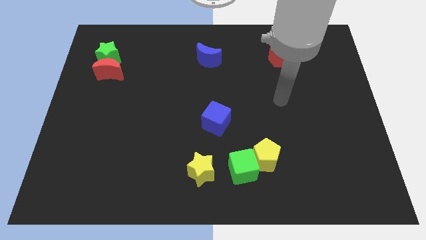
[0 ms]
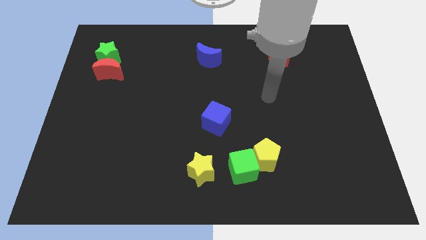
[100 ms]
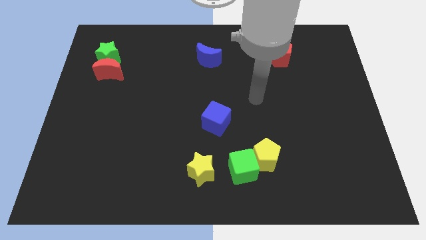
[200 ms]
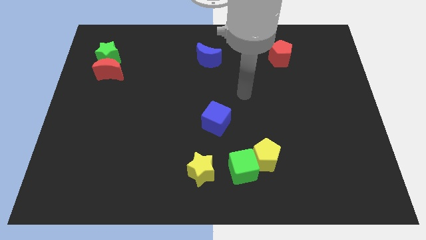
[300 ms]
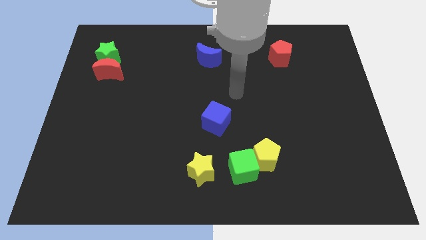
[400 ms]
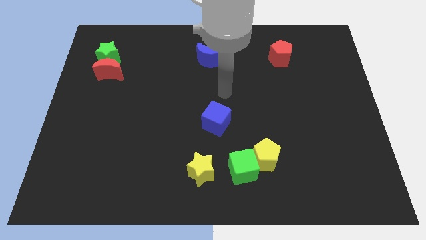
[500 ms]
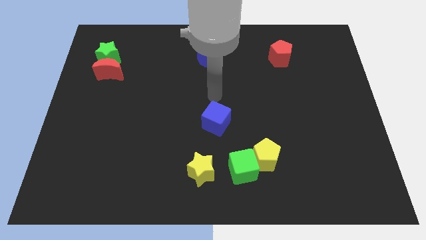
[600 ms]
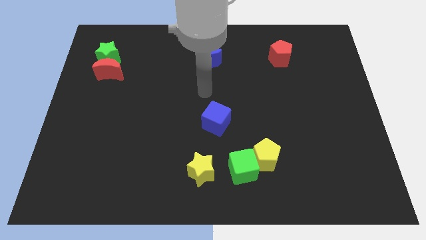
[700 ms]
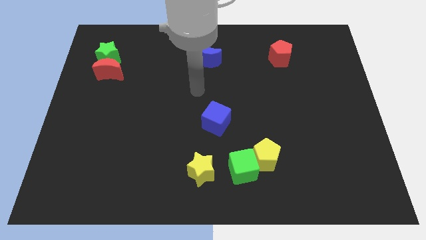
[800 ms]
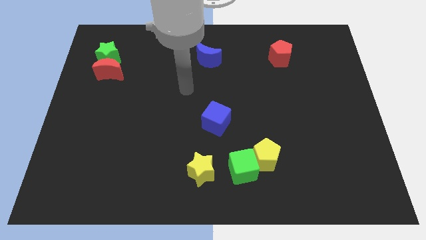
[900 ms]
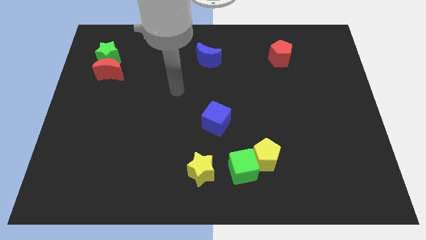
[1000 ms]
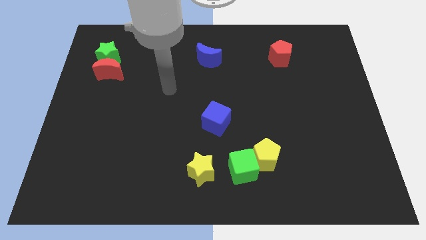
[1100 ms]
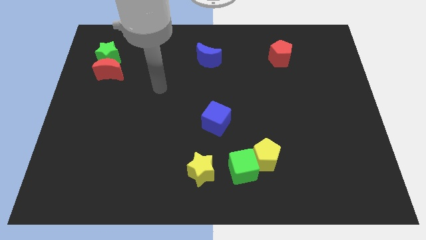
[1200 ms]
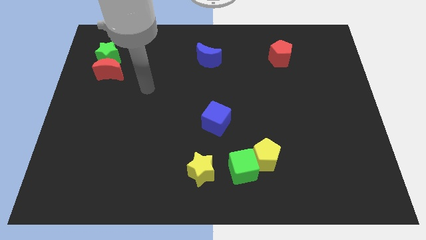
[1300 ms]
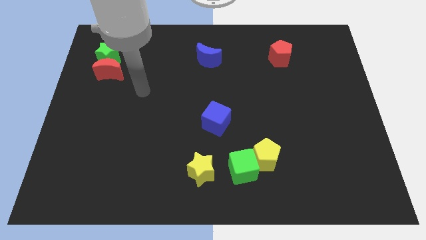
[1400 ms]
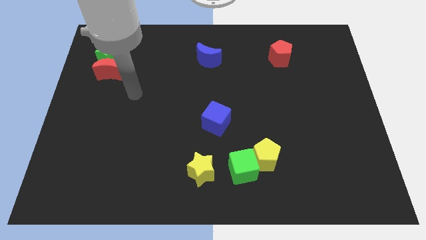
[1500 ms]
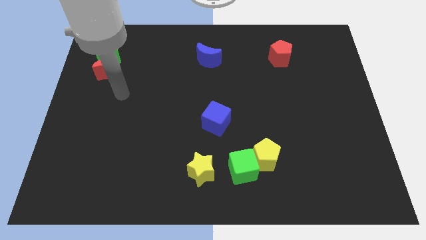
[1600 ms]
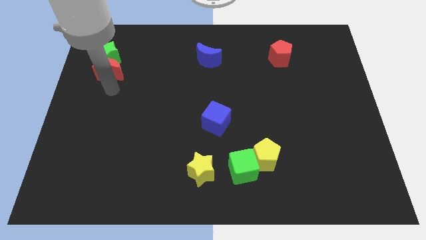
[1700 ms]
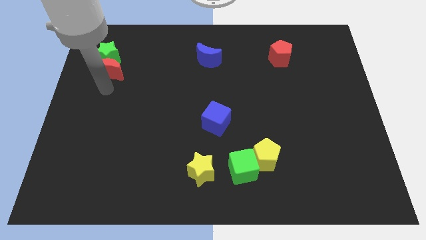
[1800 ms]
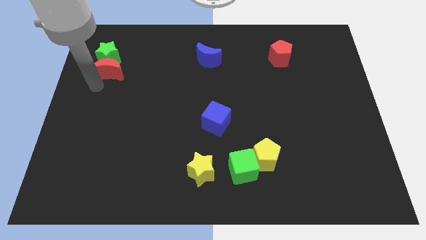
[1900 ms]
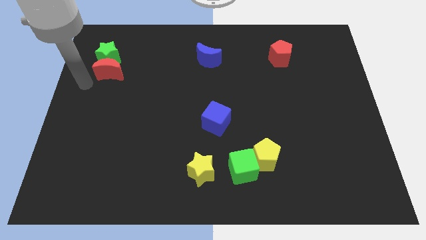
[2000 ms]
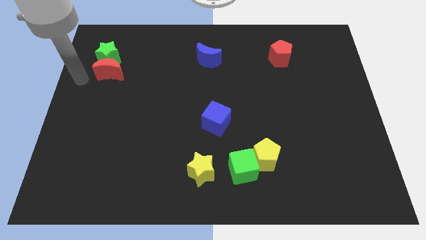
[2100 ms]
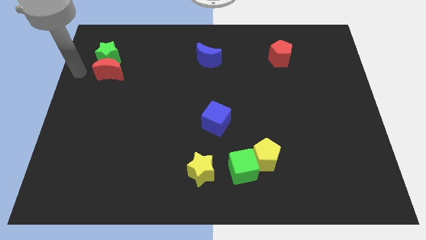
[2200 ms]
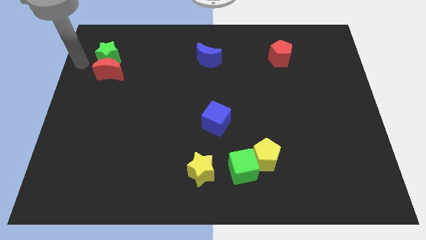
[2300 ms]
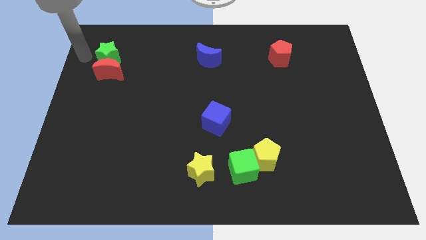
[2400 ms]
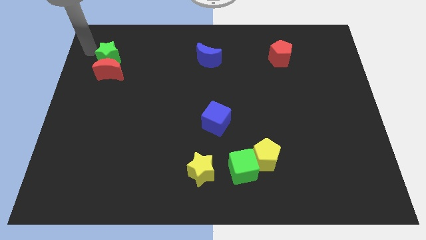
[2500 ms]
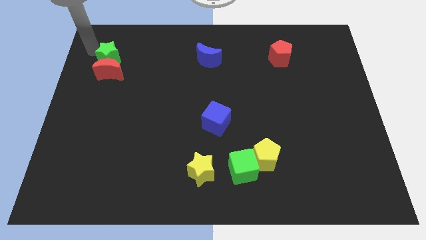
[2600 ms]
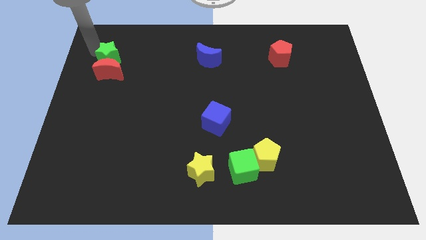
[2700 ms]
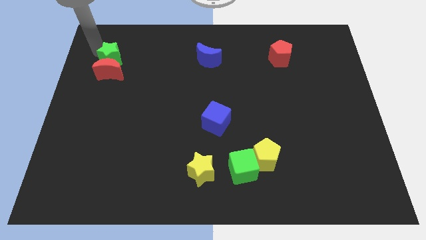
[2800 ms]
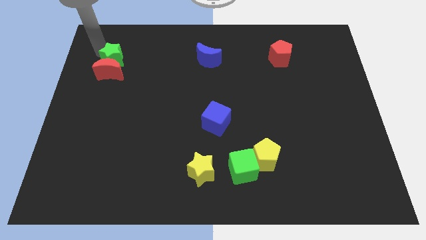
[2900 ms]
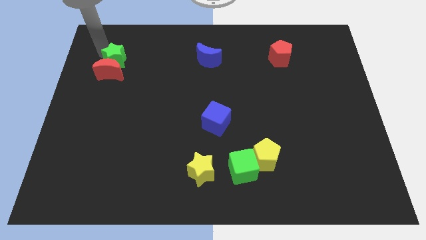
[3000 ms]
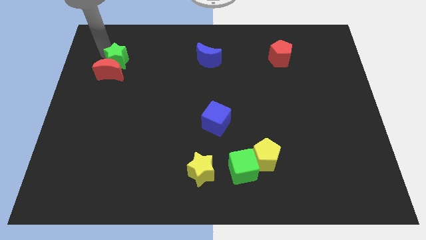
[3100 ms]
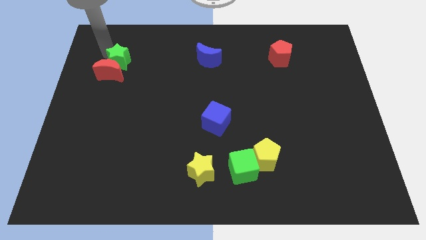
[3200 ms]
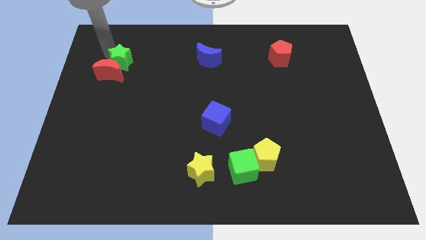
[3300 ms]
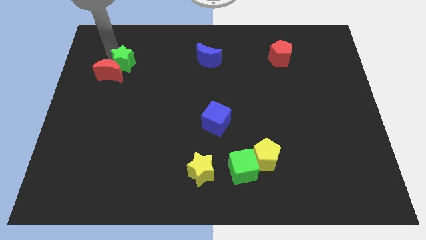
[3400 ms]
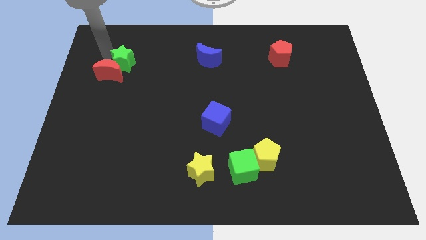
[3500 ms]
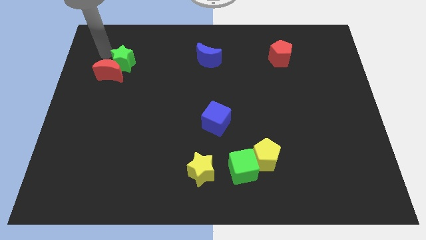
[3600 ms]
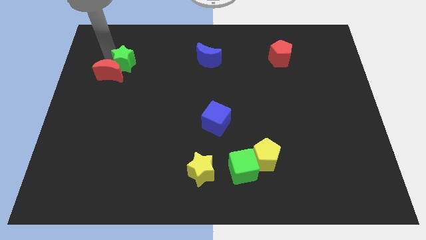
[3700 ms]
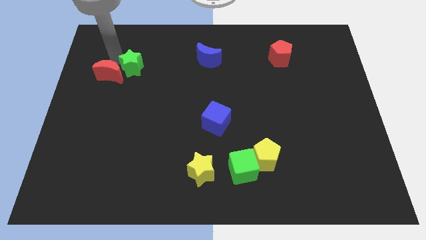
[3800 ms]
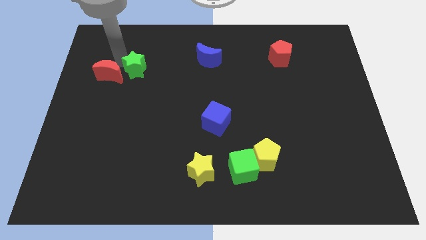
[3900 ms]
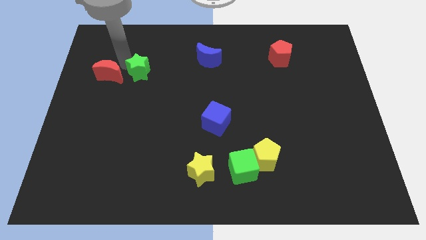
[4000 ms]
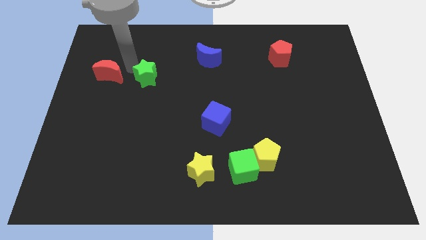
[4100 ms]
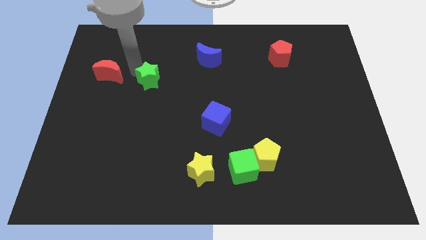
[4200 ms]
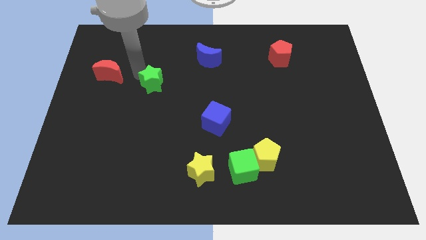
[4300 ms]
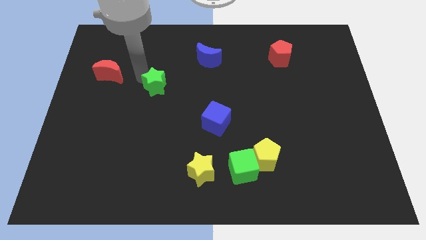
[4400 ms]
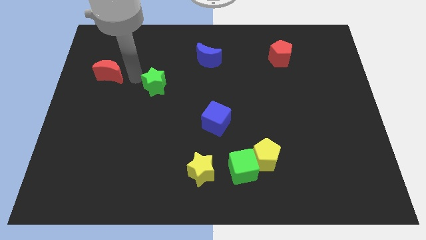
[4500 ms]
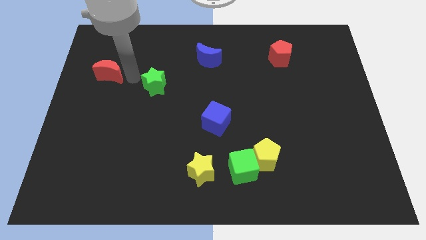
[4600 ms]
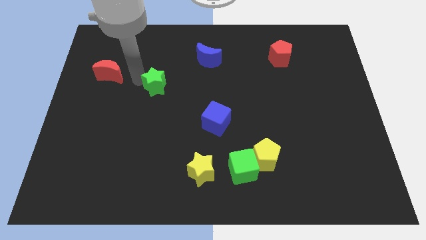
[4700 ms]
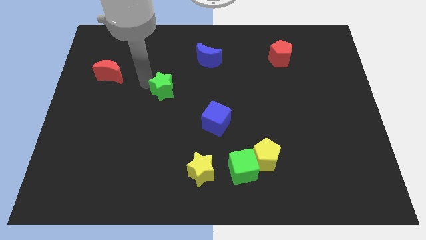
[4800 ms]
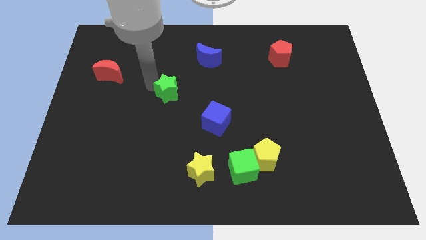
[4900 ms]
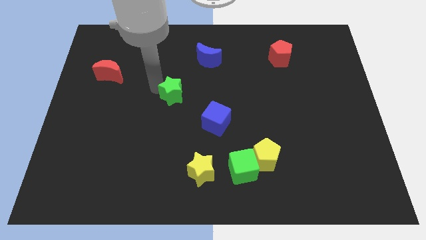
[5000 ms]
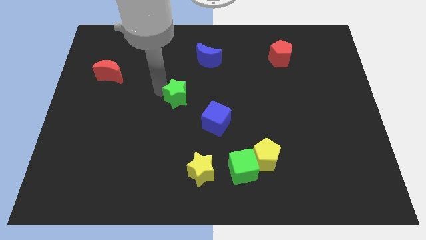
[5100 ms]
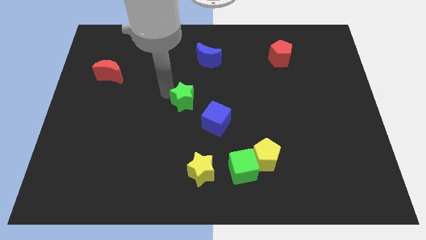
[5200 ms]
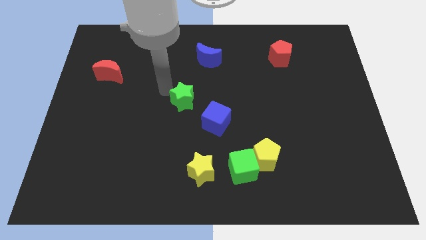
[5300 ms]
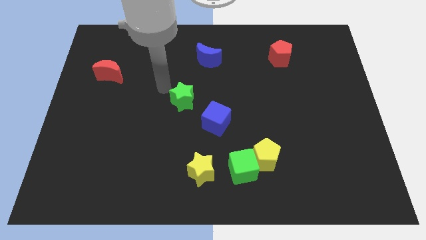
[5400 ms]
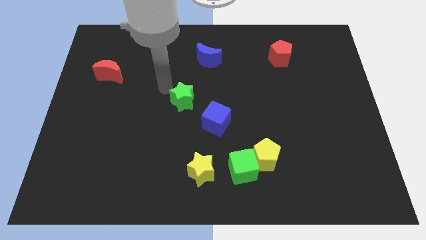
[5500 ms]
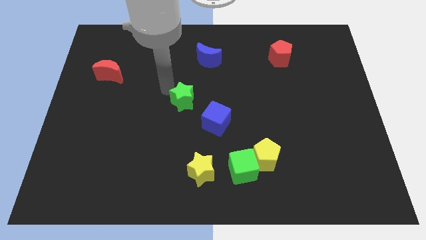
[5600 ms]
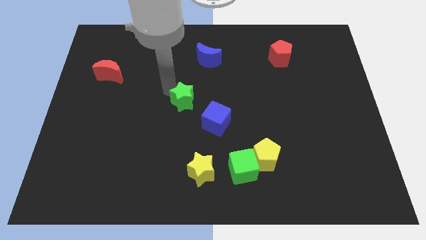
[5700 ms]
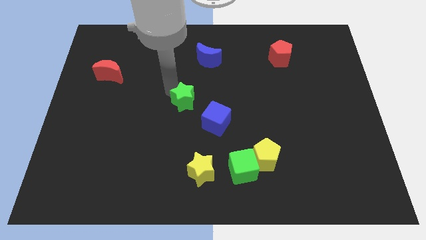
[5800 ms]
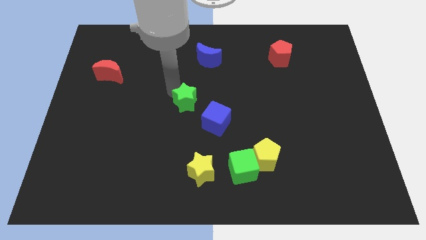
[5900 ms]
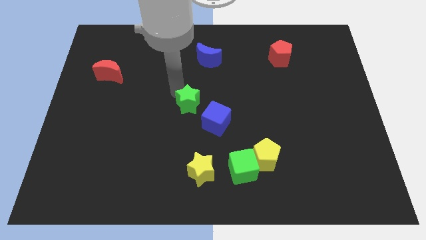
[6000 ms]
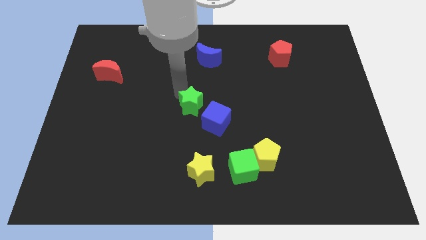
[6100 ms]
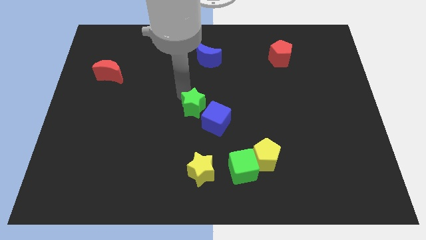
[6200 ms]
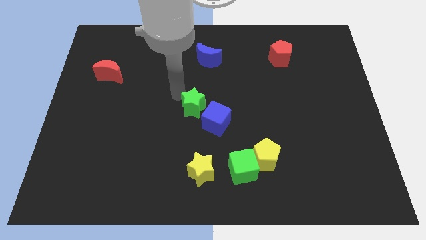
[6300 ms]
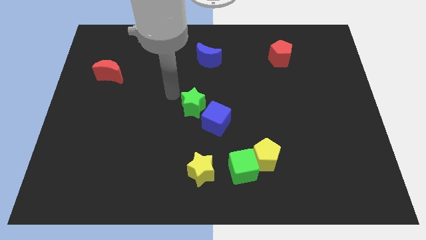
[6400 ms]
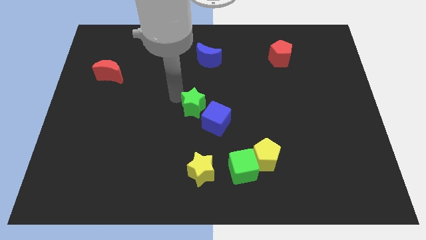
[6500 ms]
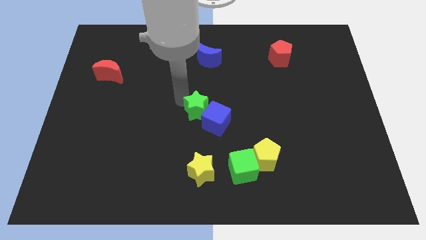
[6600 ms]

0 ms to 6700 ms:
slide the green star to the blue cube

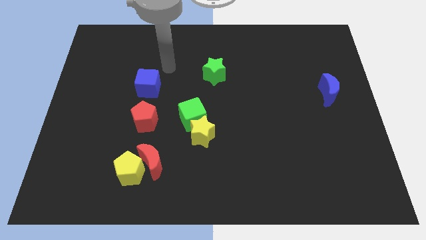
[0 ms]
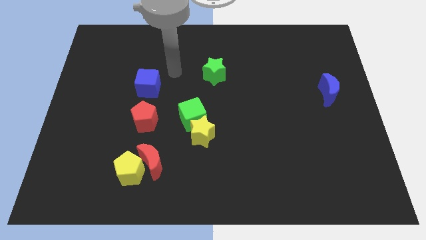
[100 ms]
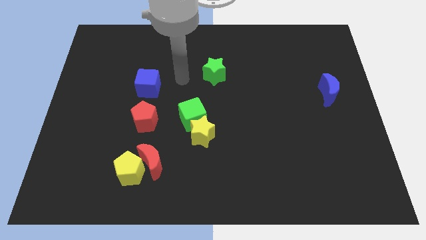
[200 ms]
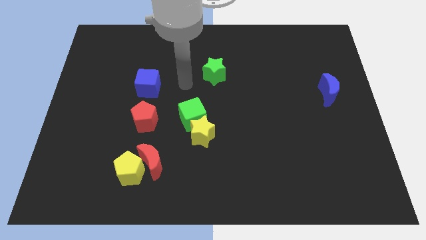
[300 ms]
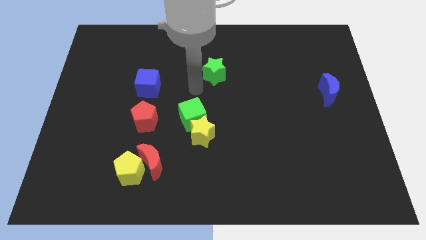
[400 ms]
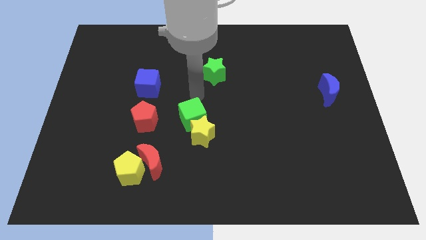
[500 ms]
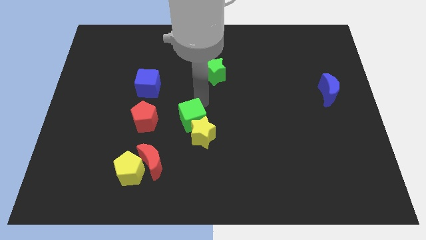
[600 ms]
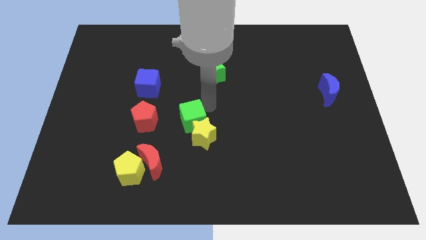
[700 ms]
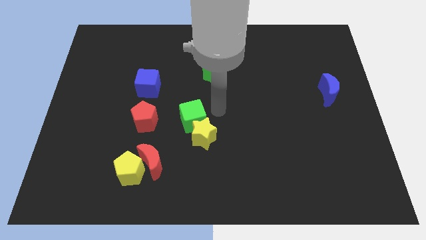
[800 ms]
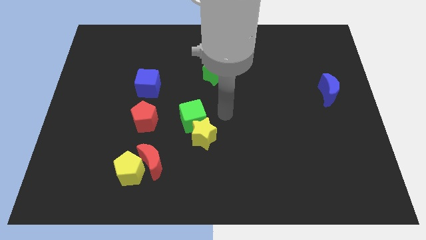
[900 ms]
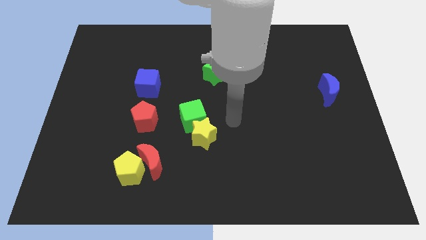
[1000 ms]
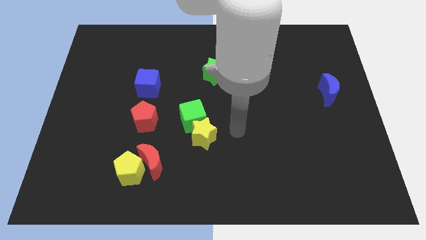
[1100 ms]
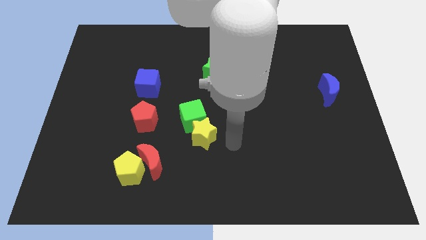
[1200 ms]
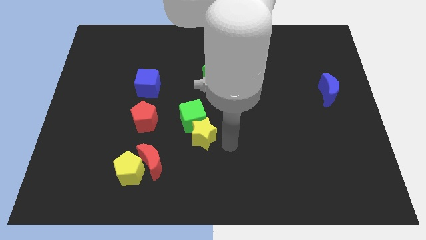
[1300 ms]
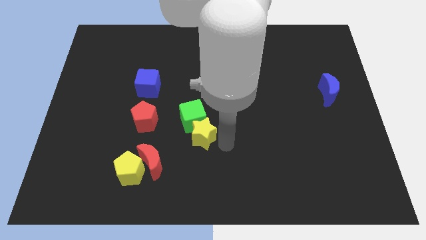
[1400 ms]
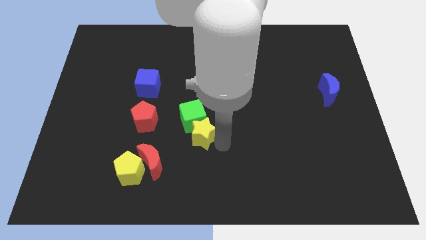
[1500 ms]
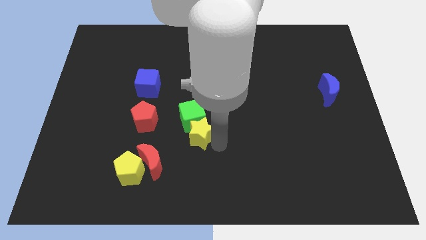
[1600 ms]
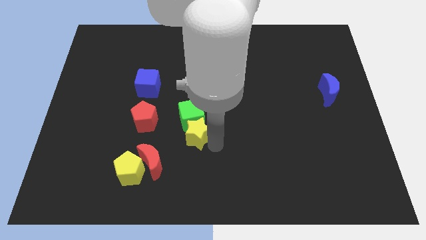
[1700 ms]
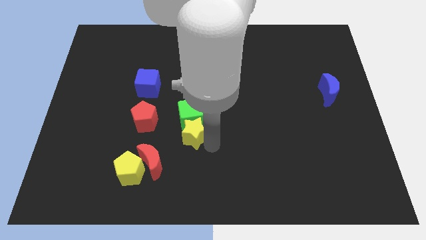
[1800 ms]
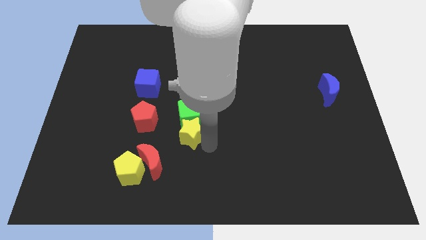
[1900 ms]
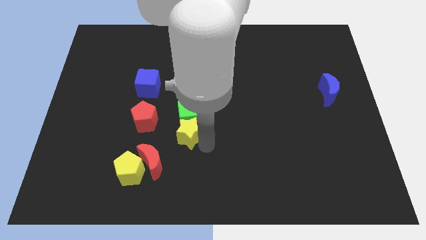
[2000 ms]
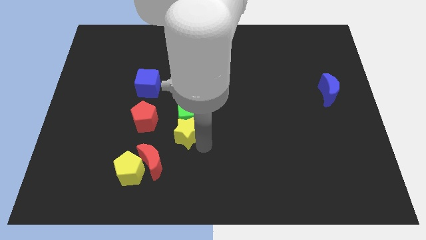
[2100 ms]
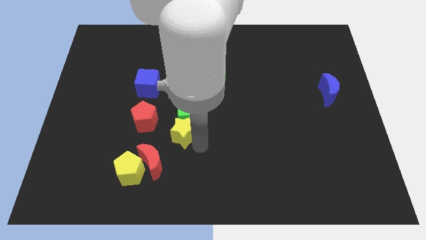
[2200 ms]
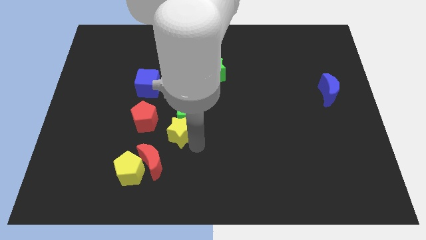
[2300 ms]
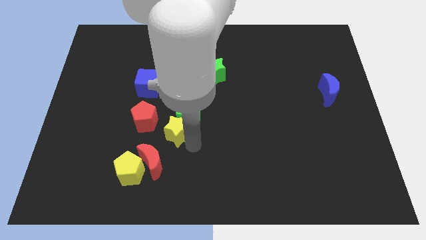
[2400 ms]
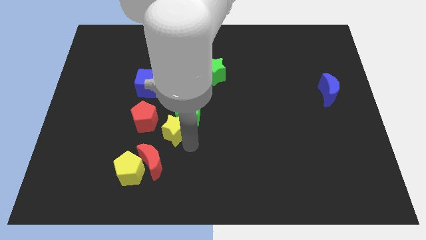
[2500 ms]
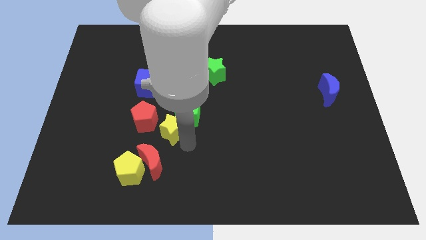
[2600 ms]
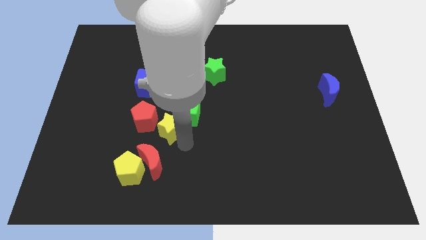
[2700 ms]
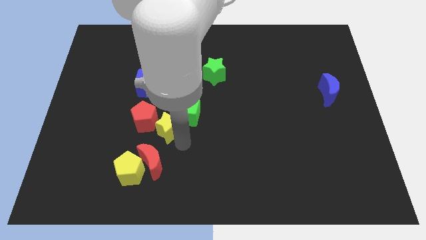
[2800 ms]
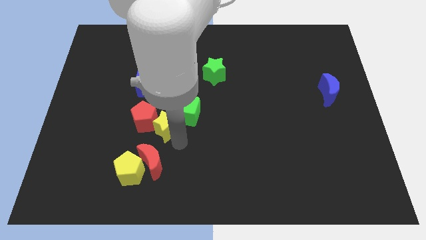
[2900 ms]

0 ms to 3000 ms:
move the yellow star next to the red pentagon
